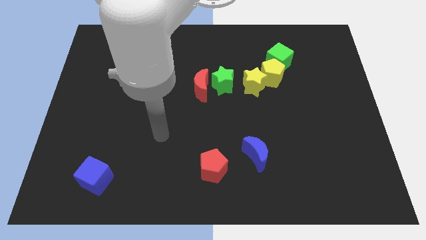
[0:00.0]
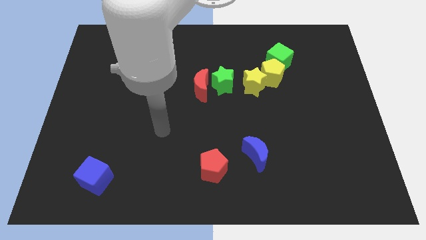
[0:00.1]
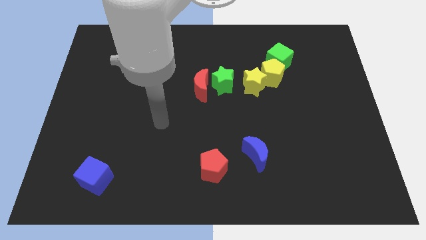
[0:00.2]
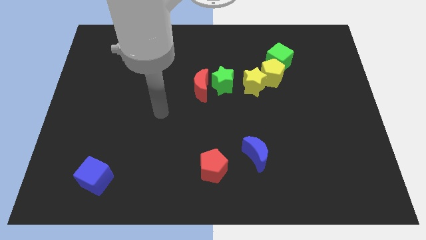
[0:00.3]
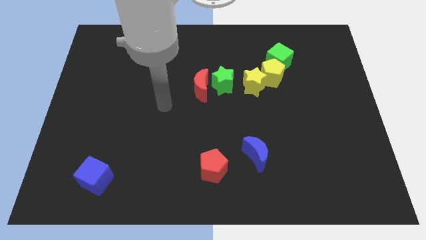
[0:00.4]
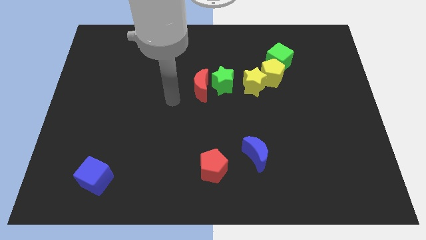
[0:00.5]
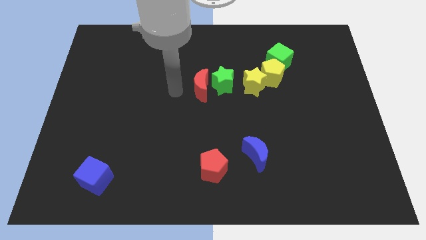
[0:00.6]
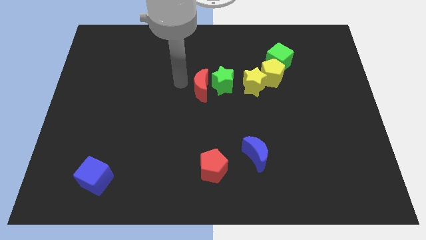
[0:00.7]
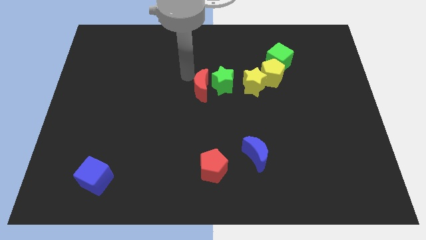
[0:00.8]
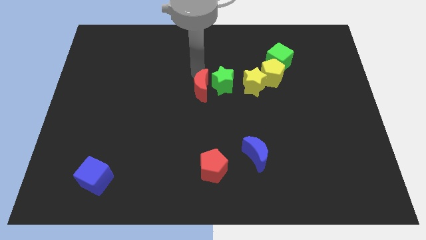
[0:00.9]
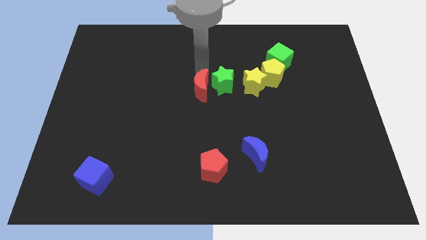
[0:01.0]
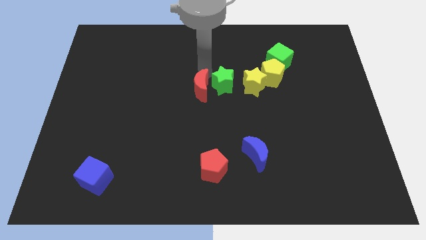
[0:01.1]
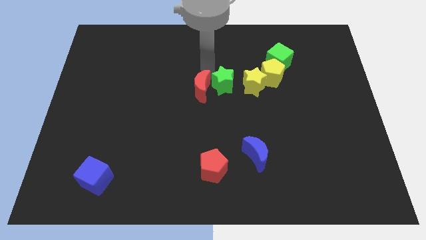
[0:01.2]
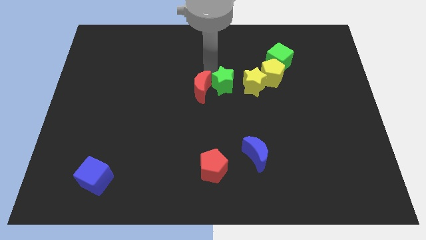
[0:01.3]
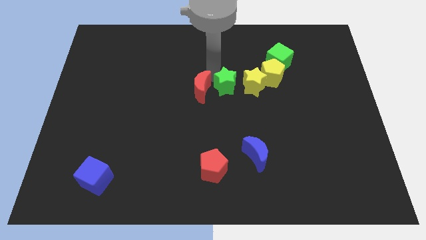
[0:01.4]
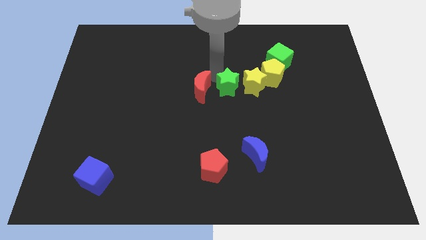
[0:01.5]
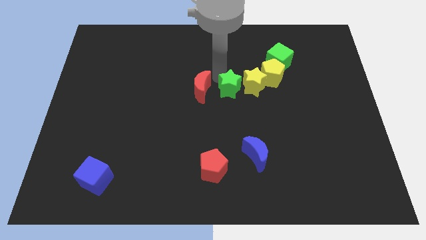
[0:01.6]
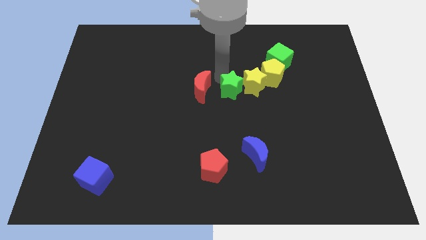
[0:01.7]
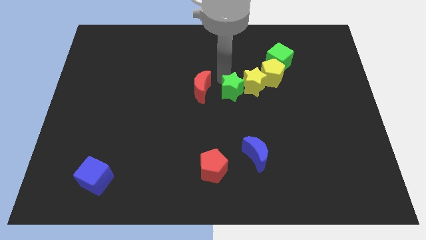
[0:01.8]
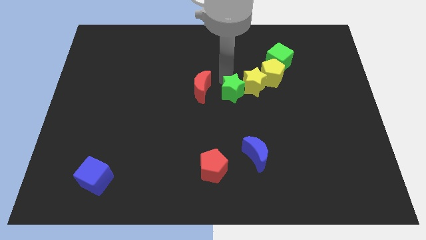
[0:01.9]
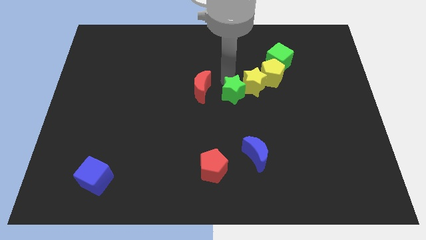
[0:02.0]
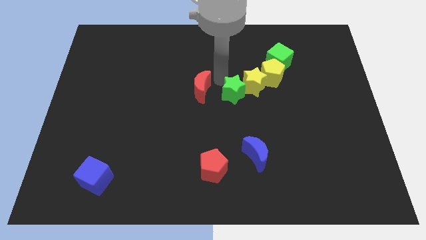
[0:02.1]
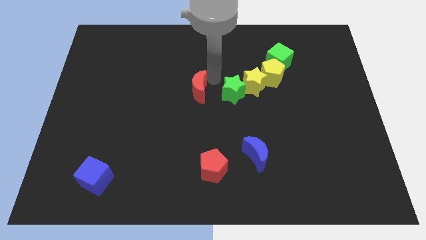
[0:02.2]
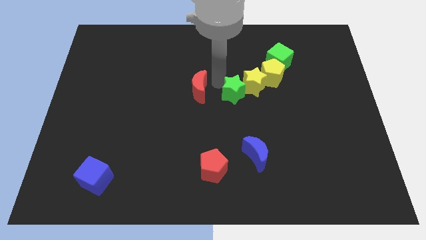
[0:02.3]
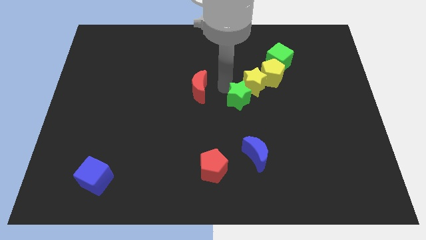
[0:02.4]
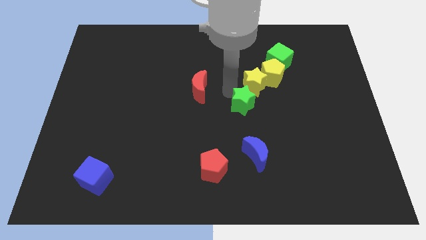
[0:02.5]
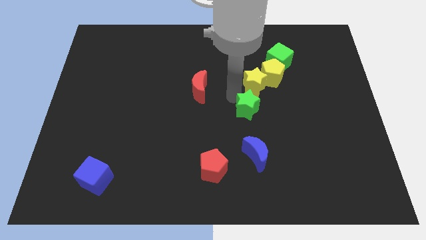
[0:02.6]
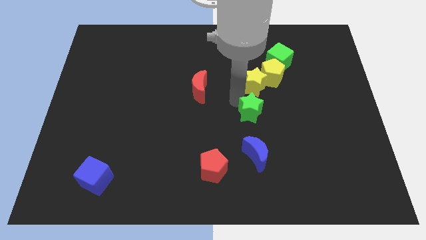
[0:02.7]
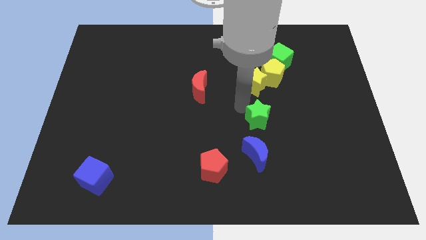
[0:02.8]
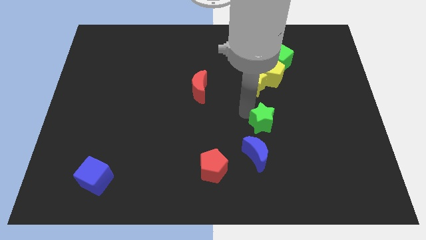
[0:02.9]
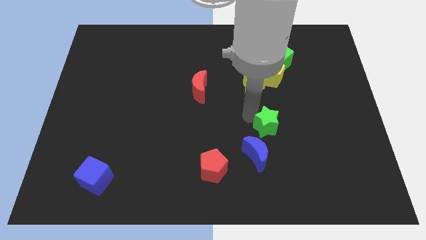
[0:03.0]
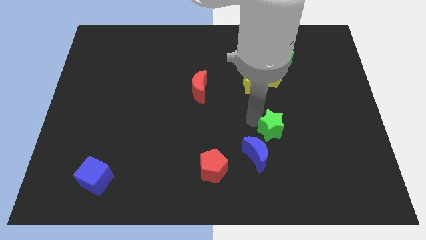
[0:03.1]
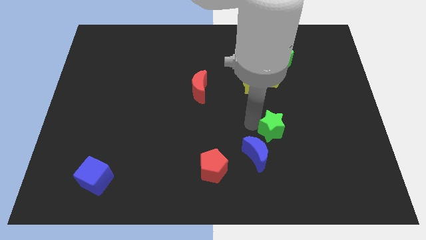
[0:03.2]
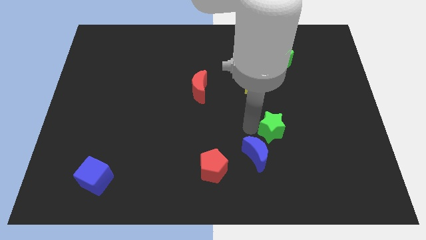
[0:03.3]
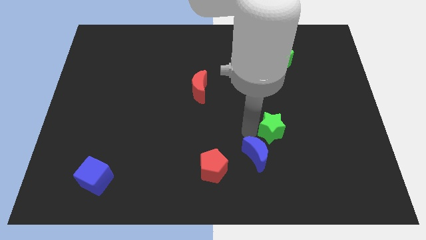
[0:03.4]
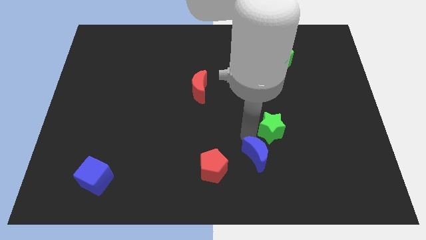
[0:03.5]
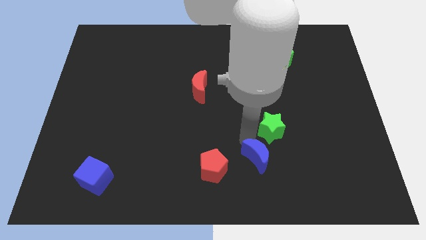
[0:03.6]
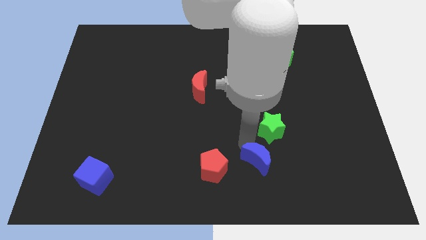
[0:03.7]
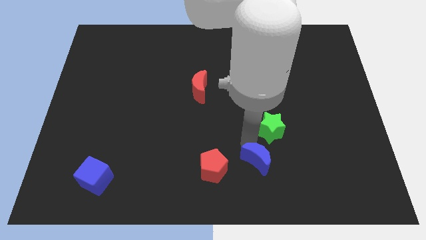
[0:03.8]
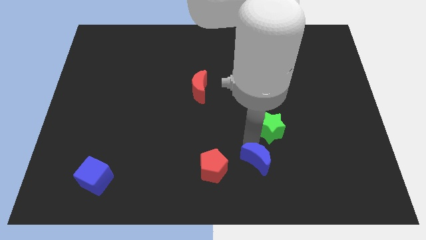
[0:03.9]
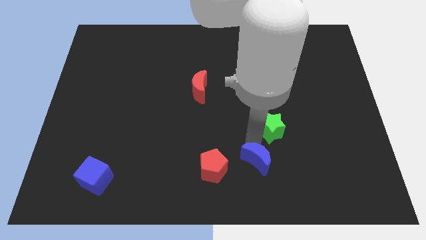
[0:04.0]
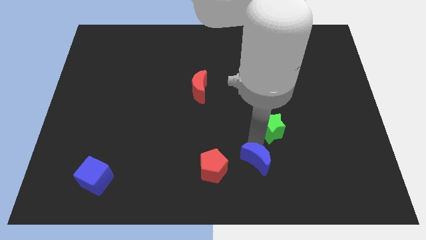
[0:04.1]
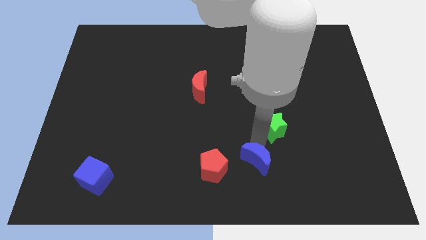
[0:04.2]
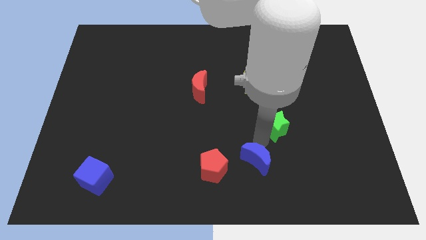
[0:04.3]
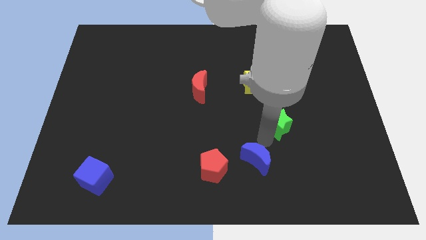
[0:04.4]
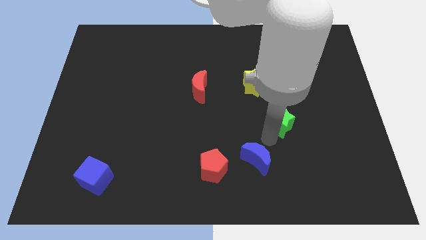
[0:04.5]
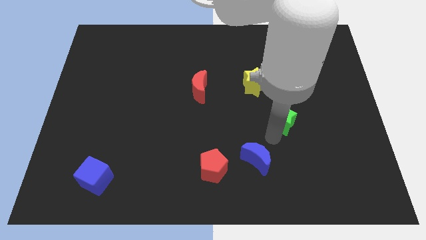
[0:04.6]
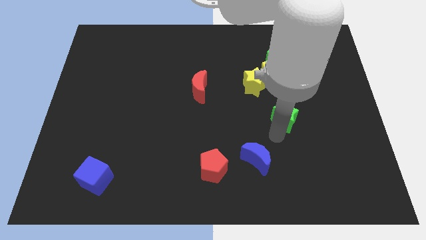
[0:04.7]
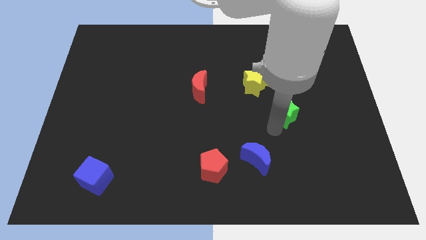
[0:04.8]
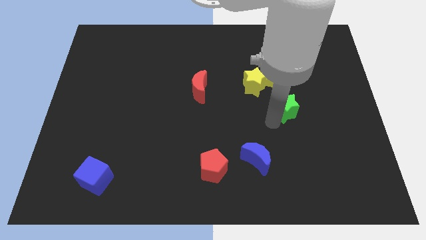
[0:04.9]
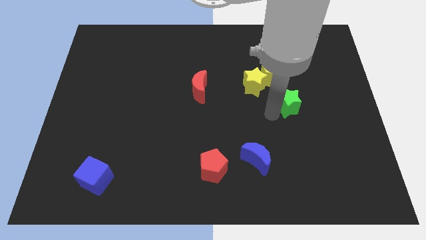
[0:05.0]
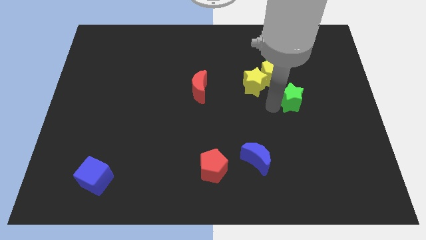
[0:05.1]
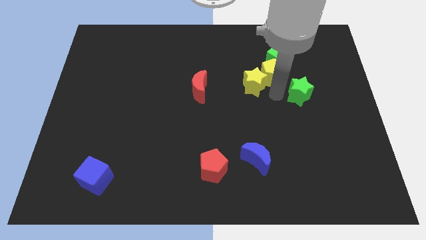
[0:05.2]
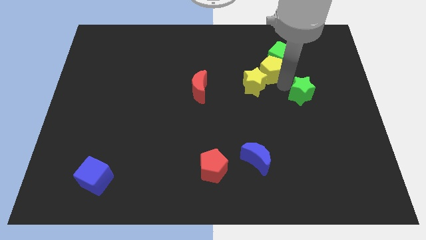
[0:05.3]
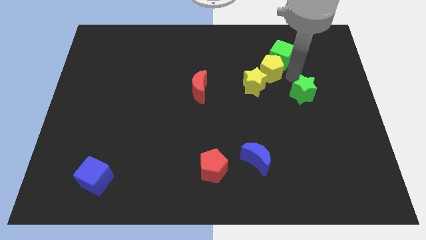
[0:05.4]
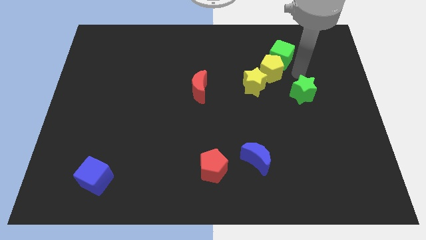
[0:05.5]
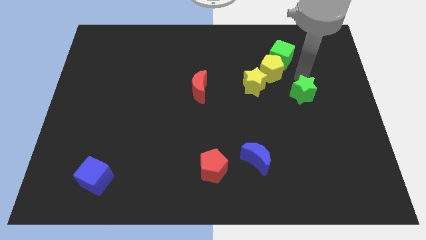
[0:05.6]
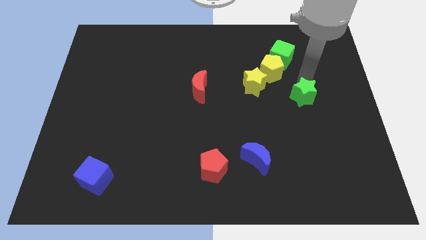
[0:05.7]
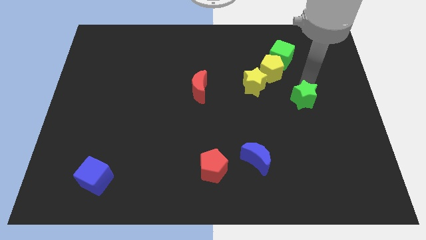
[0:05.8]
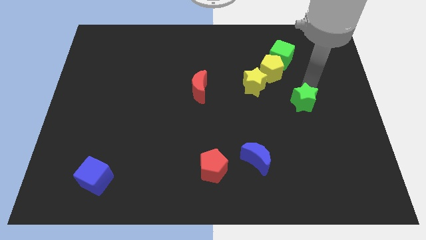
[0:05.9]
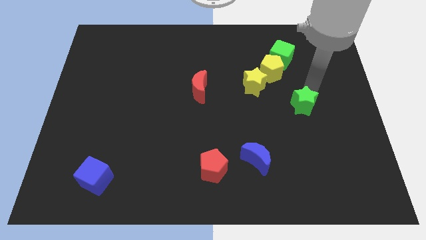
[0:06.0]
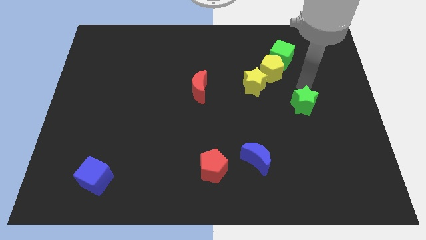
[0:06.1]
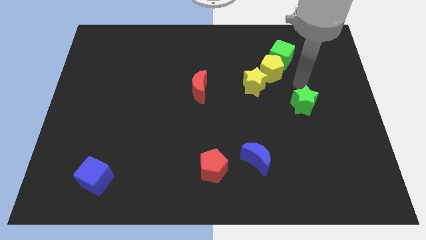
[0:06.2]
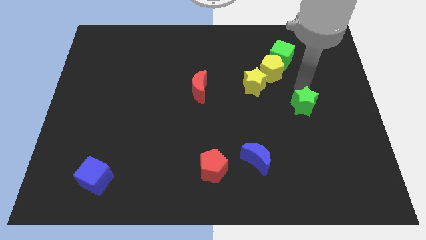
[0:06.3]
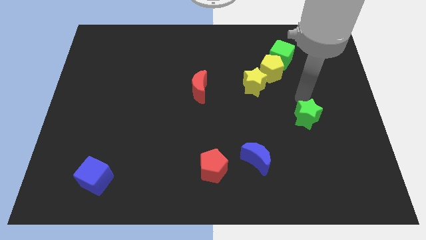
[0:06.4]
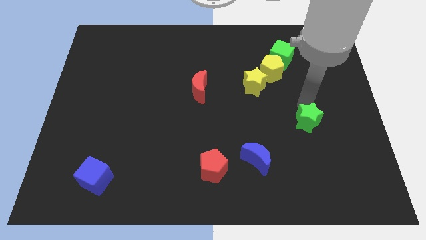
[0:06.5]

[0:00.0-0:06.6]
slide the green star diagonally down and to the right

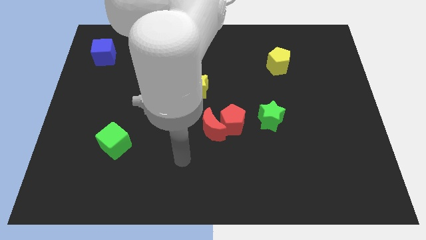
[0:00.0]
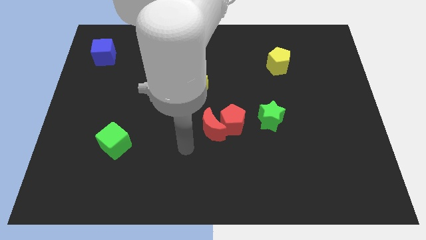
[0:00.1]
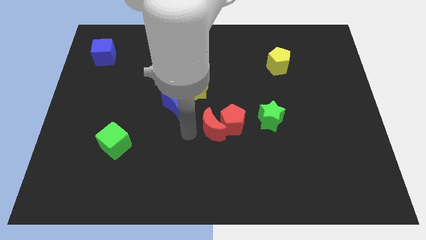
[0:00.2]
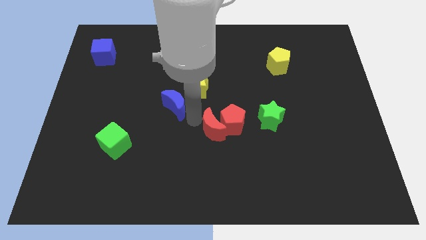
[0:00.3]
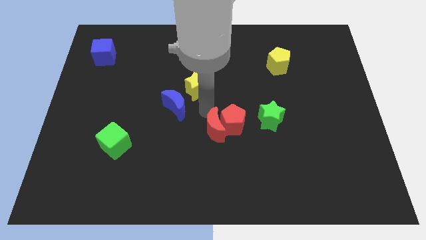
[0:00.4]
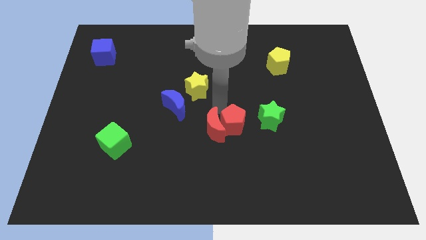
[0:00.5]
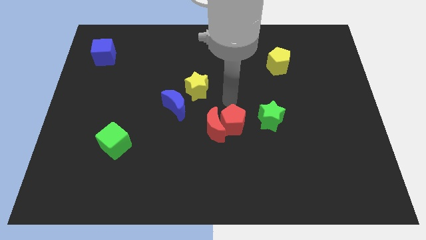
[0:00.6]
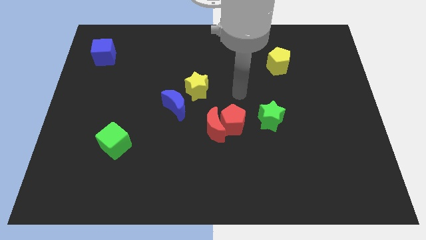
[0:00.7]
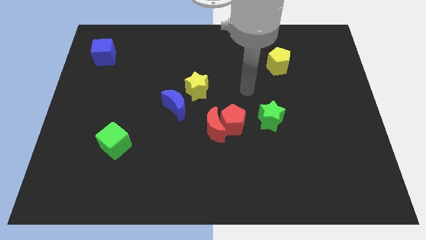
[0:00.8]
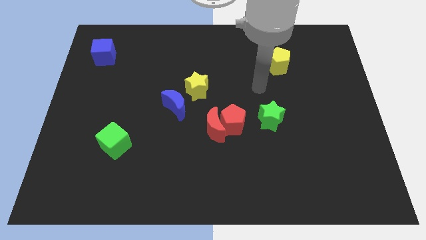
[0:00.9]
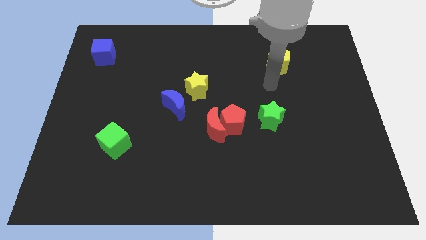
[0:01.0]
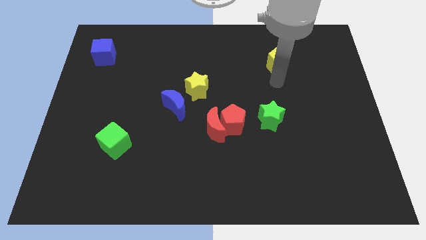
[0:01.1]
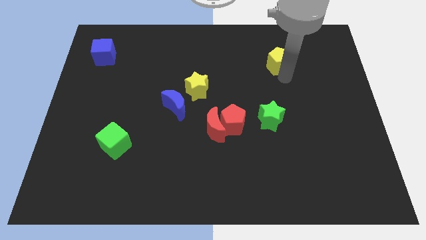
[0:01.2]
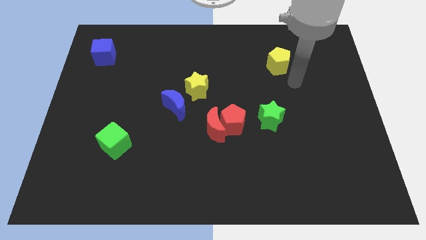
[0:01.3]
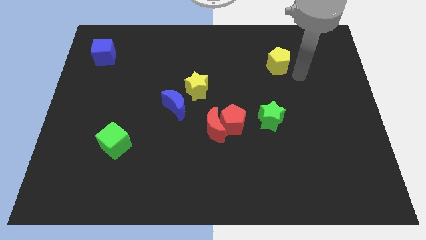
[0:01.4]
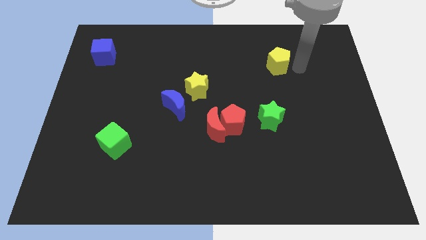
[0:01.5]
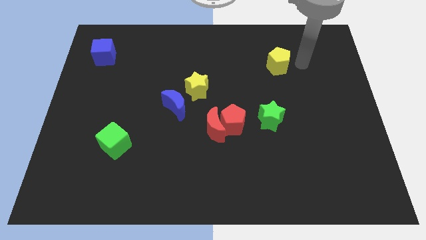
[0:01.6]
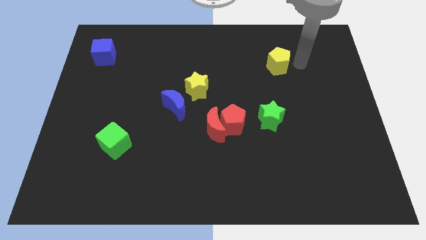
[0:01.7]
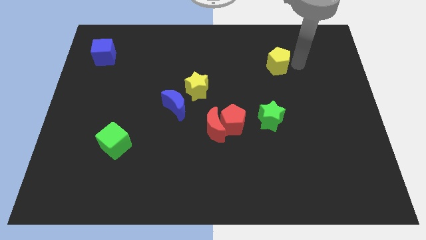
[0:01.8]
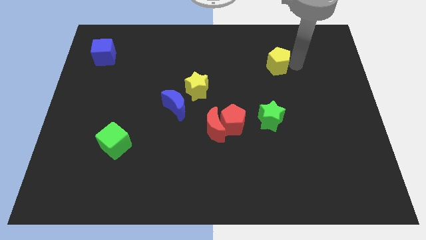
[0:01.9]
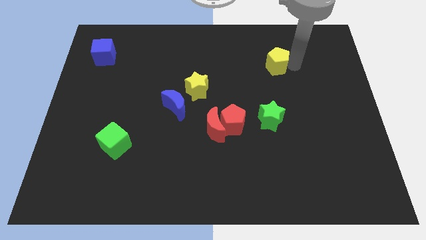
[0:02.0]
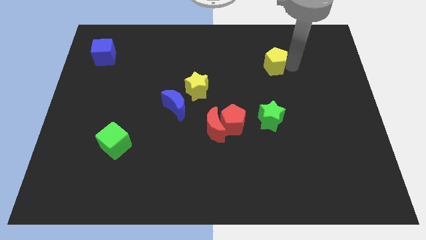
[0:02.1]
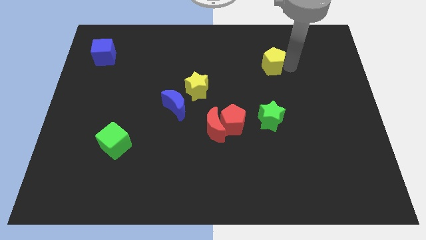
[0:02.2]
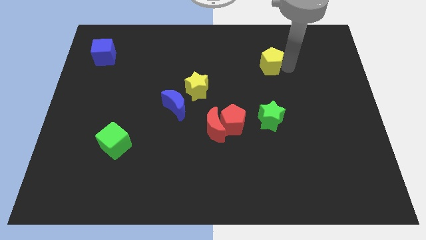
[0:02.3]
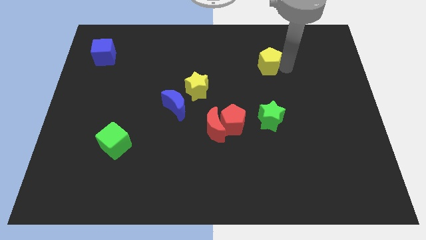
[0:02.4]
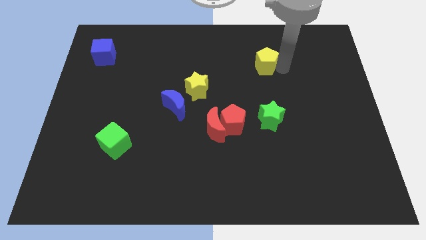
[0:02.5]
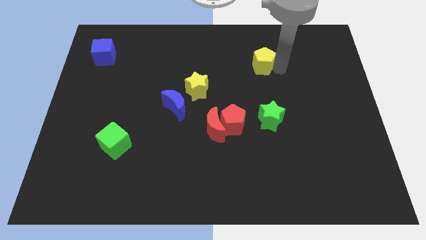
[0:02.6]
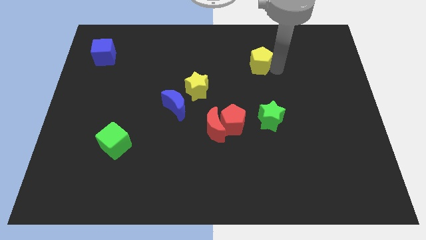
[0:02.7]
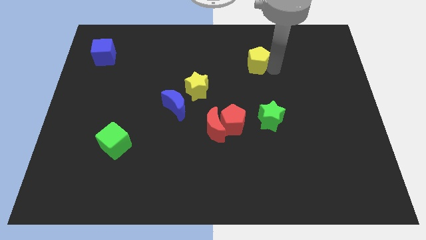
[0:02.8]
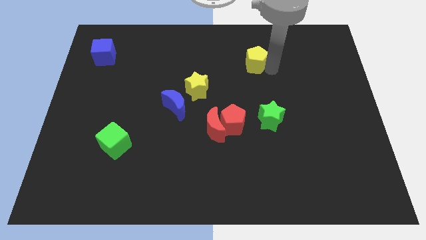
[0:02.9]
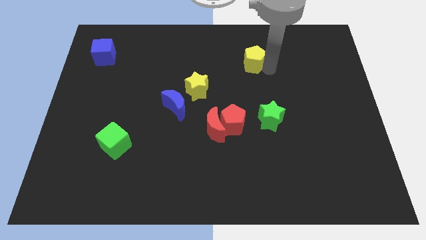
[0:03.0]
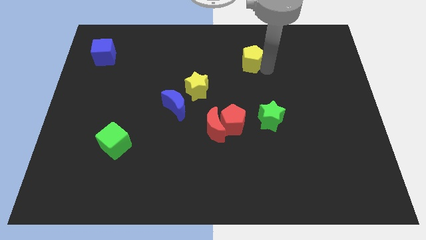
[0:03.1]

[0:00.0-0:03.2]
slightly move the yellow pentagon to the left
